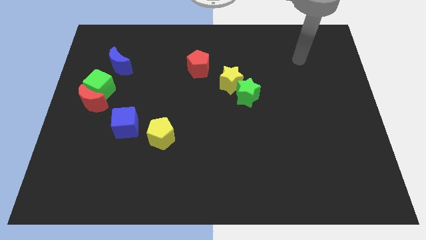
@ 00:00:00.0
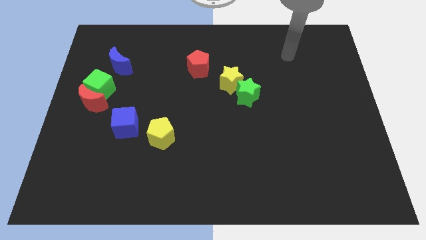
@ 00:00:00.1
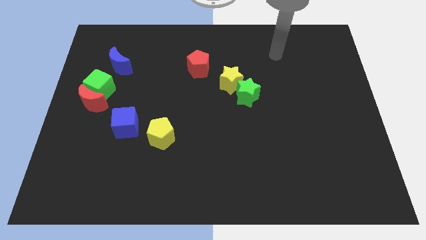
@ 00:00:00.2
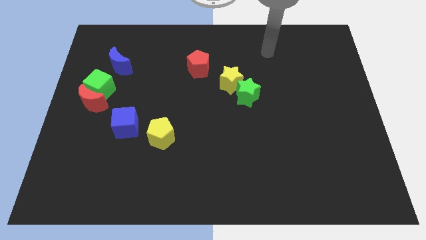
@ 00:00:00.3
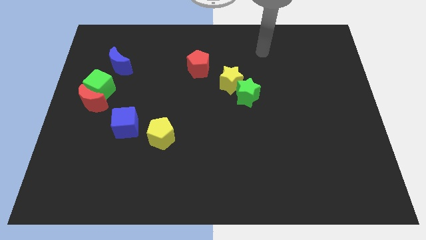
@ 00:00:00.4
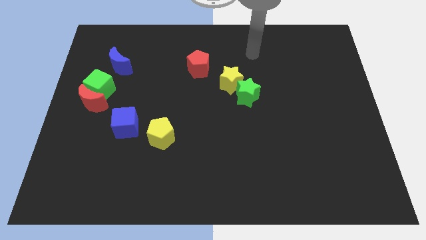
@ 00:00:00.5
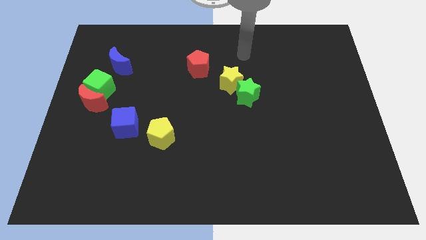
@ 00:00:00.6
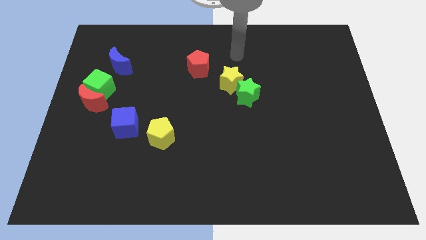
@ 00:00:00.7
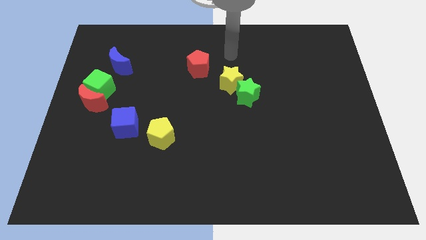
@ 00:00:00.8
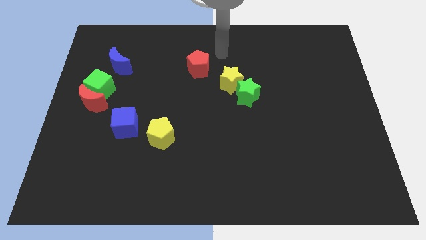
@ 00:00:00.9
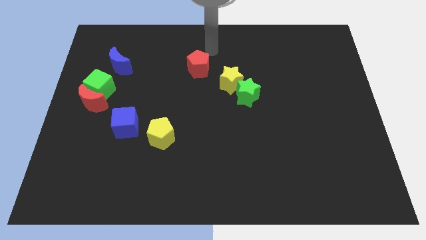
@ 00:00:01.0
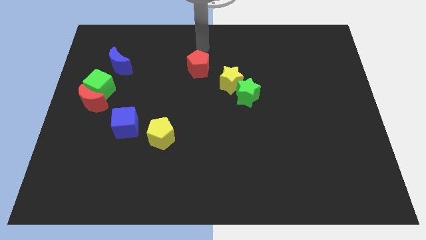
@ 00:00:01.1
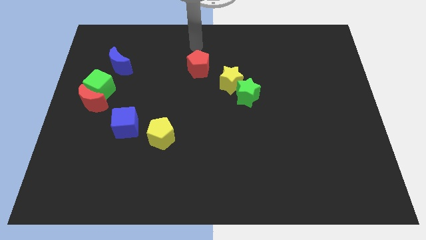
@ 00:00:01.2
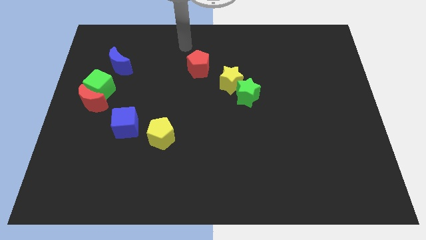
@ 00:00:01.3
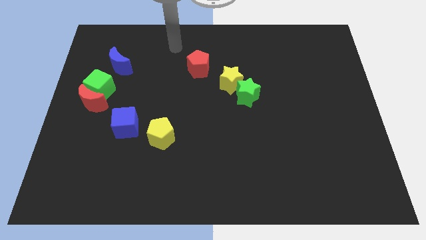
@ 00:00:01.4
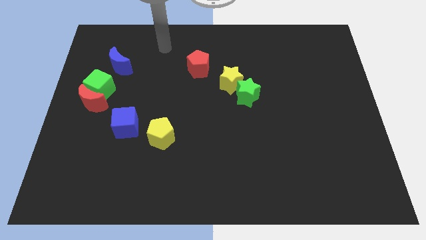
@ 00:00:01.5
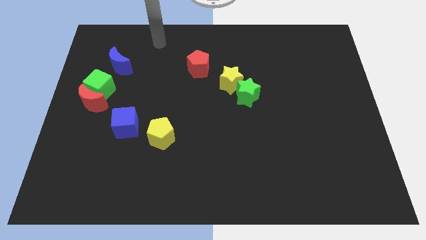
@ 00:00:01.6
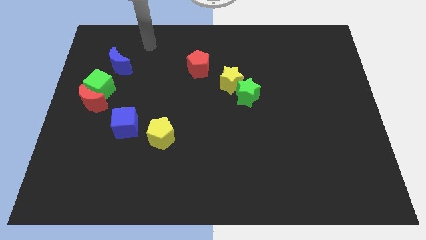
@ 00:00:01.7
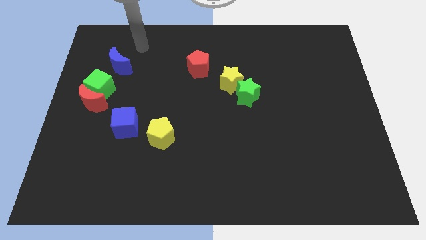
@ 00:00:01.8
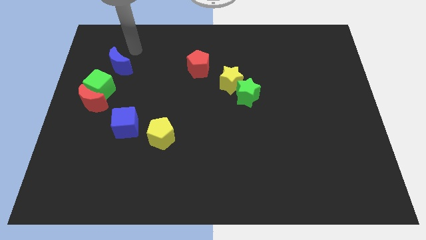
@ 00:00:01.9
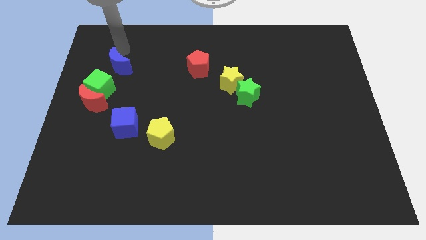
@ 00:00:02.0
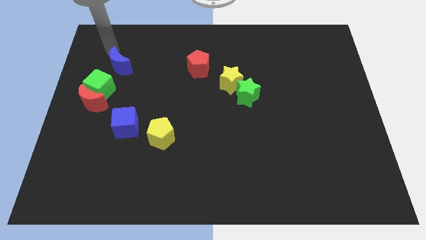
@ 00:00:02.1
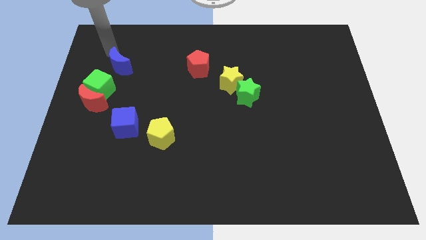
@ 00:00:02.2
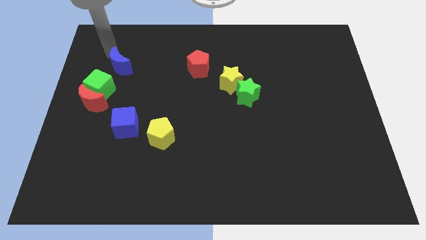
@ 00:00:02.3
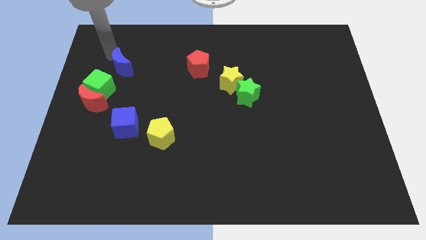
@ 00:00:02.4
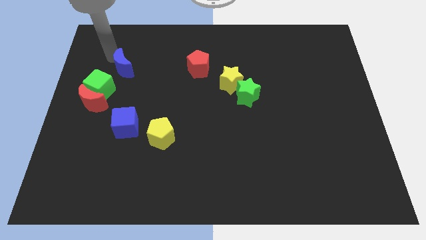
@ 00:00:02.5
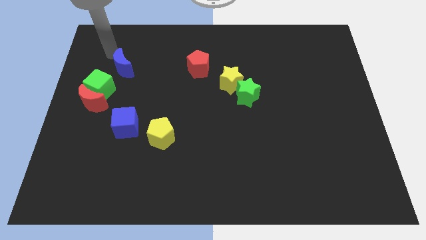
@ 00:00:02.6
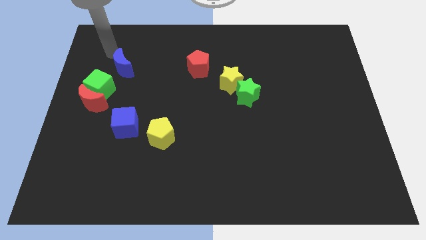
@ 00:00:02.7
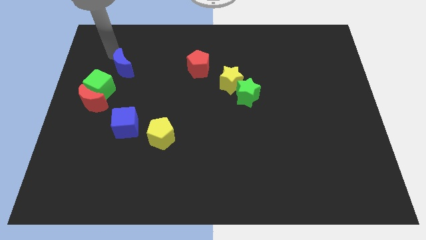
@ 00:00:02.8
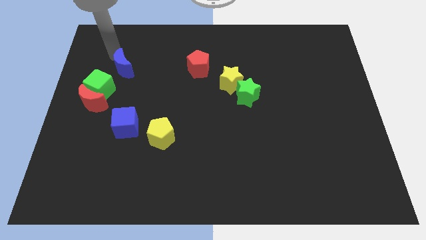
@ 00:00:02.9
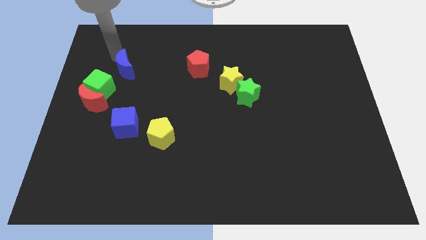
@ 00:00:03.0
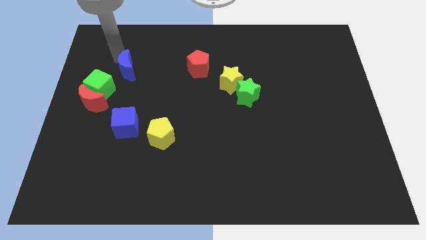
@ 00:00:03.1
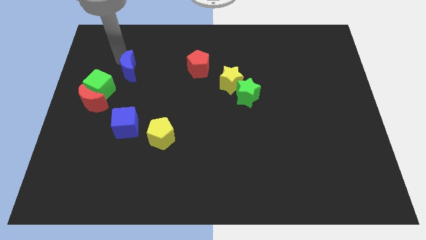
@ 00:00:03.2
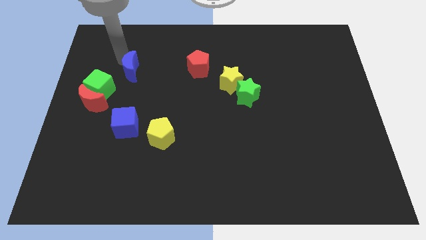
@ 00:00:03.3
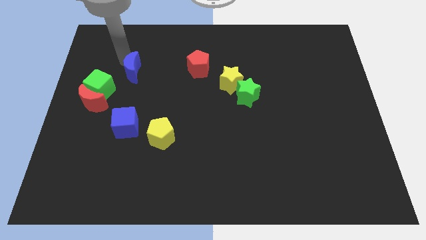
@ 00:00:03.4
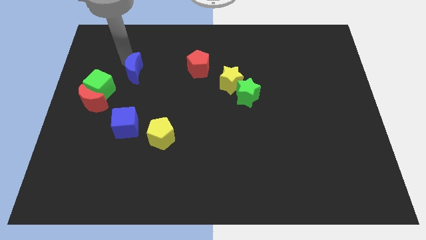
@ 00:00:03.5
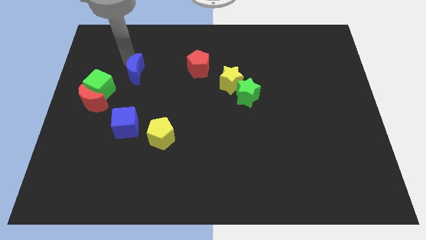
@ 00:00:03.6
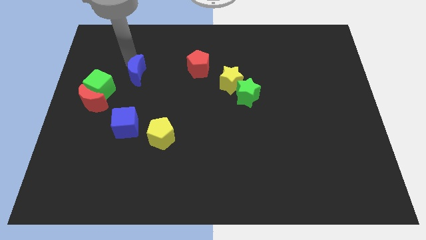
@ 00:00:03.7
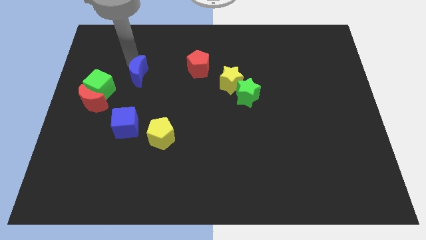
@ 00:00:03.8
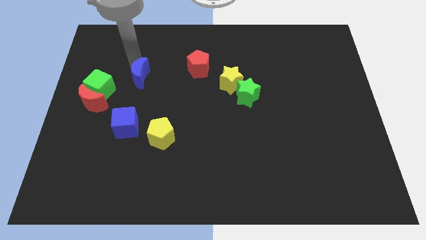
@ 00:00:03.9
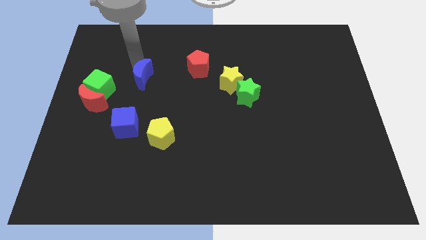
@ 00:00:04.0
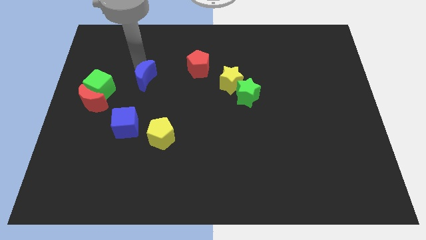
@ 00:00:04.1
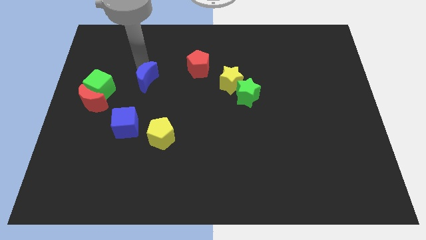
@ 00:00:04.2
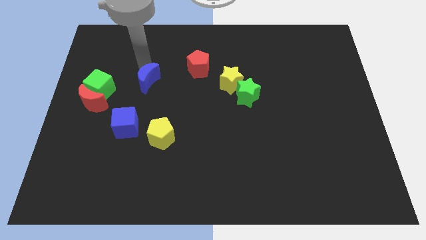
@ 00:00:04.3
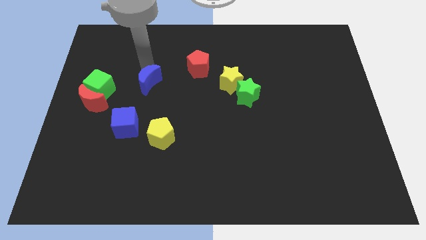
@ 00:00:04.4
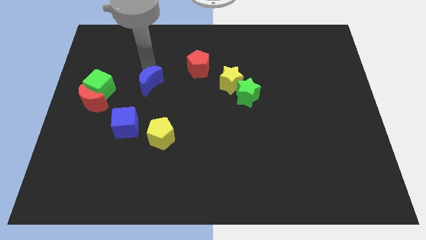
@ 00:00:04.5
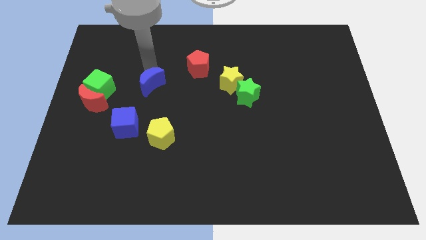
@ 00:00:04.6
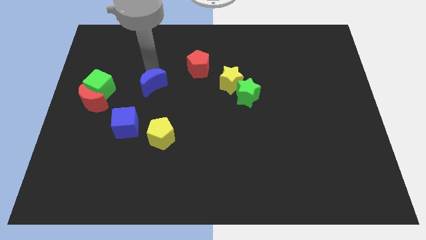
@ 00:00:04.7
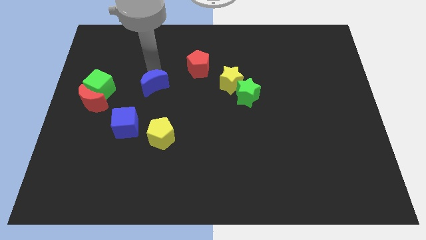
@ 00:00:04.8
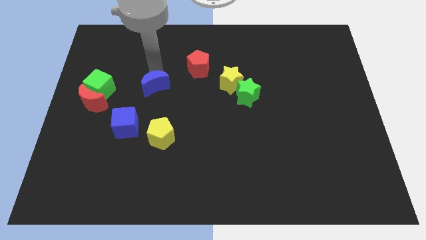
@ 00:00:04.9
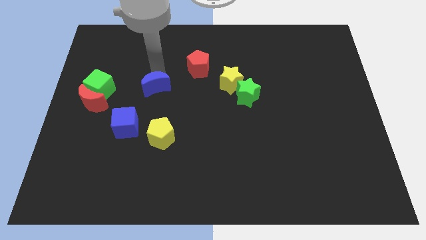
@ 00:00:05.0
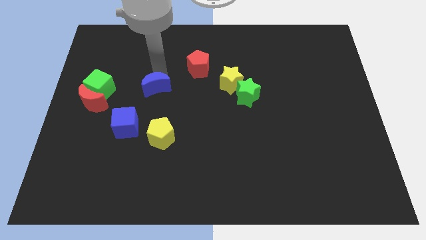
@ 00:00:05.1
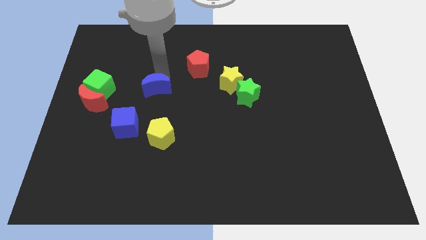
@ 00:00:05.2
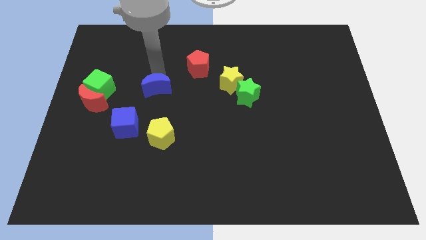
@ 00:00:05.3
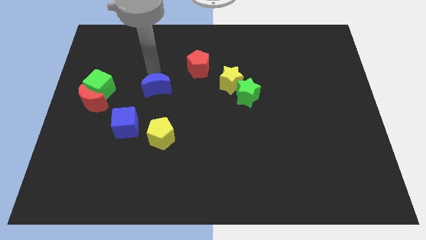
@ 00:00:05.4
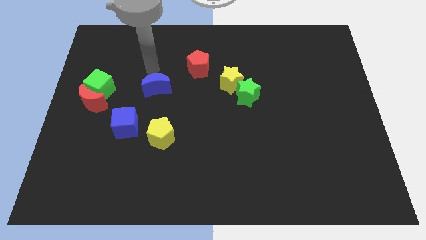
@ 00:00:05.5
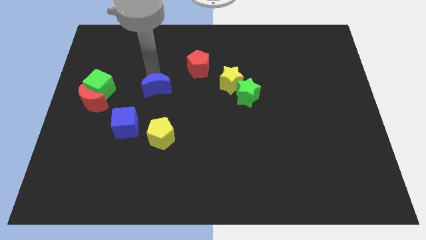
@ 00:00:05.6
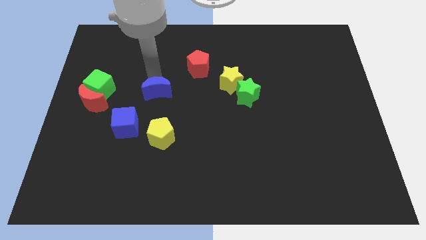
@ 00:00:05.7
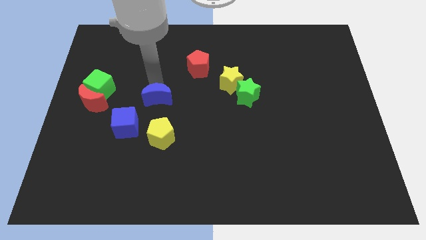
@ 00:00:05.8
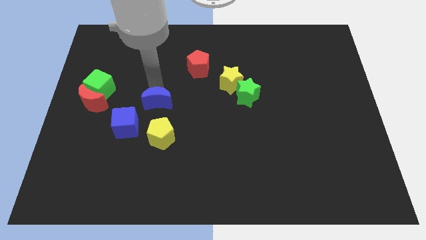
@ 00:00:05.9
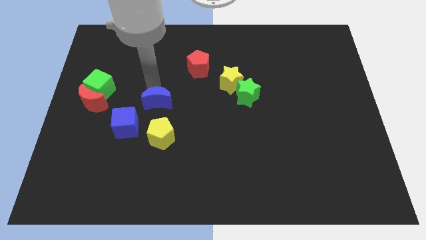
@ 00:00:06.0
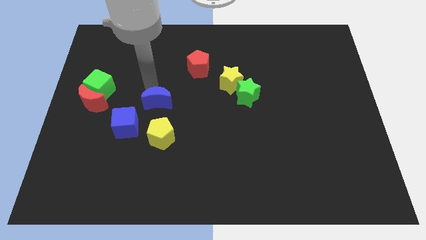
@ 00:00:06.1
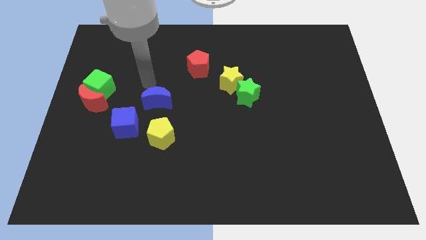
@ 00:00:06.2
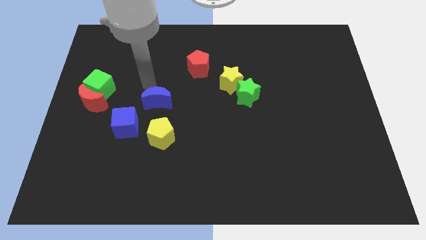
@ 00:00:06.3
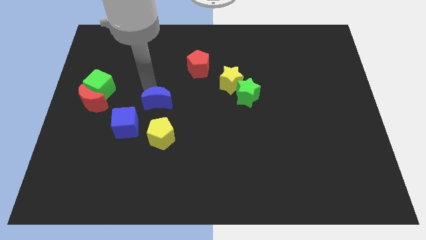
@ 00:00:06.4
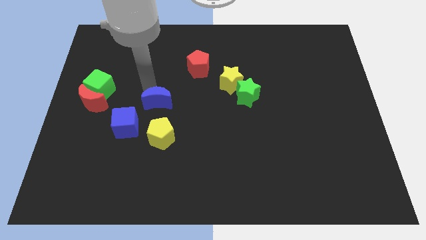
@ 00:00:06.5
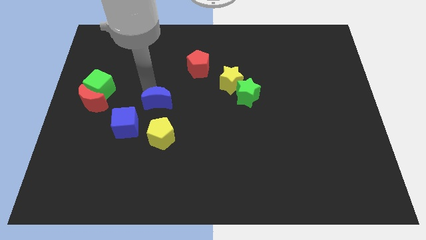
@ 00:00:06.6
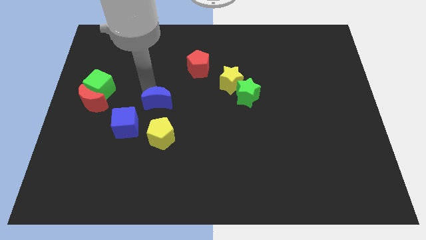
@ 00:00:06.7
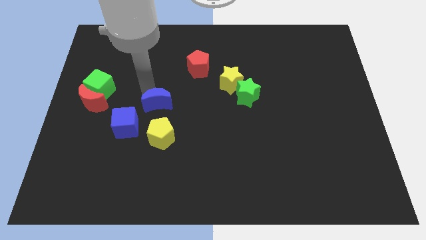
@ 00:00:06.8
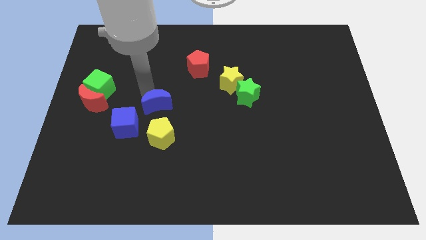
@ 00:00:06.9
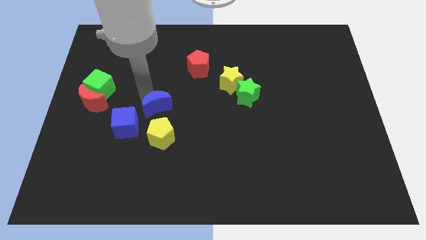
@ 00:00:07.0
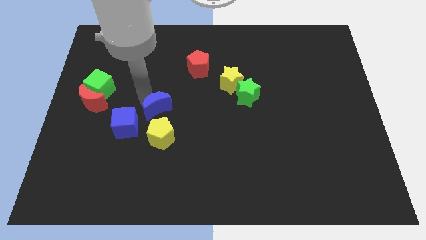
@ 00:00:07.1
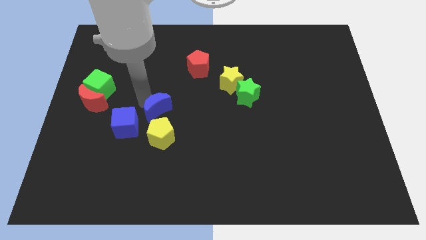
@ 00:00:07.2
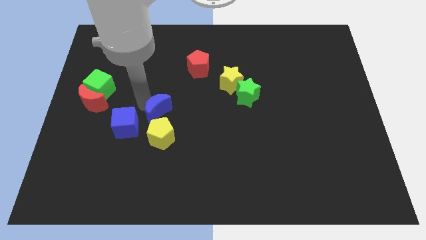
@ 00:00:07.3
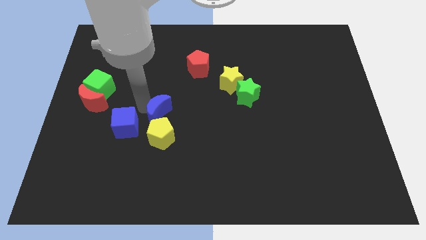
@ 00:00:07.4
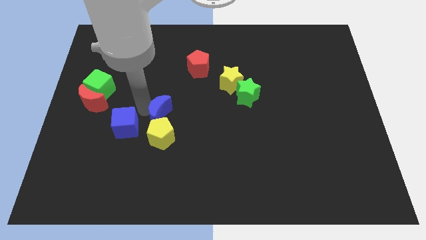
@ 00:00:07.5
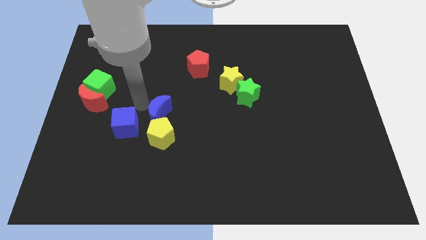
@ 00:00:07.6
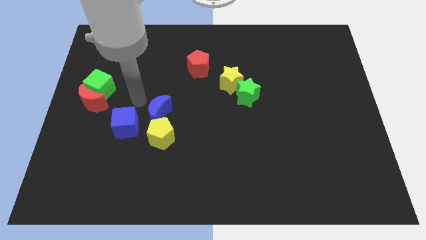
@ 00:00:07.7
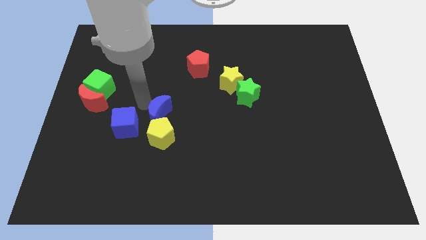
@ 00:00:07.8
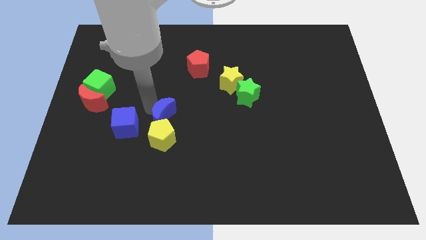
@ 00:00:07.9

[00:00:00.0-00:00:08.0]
slide the blue moon diagonally downwards and to the right
